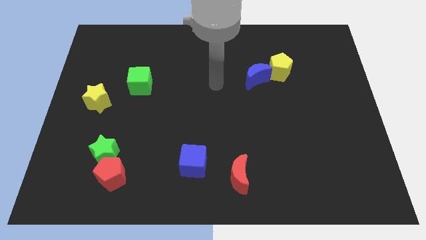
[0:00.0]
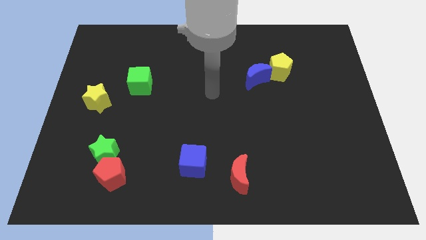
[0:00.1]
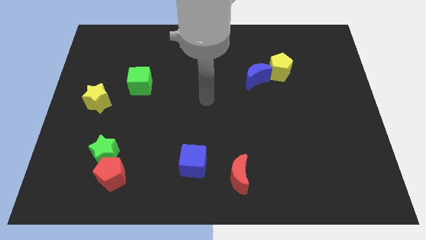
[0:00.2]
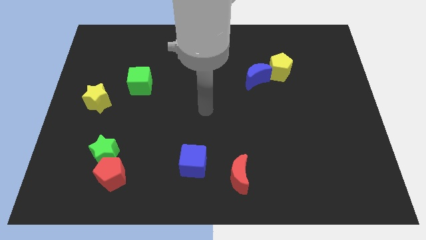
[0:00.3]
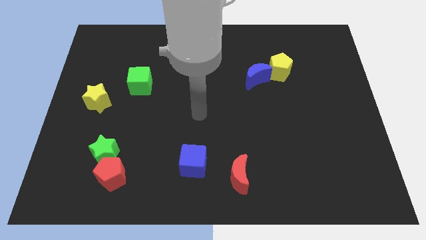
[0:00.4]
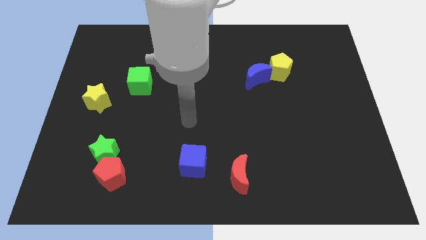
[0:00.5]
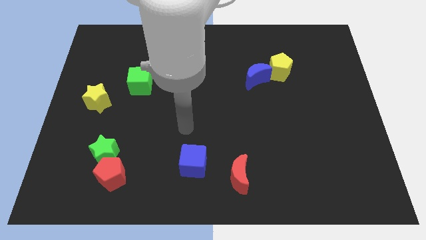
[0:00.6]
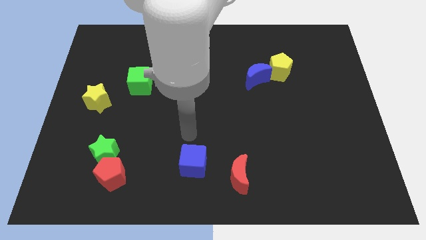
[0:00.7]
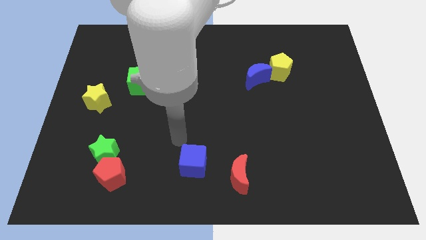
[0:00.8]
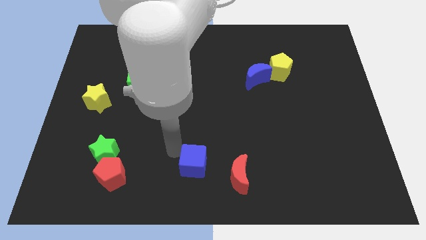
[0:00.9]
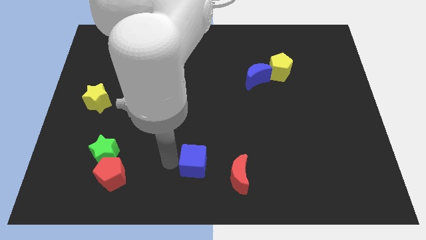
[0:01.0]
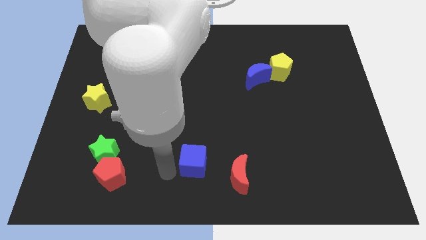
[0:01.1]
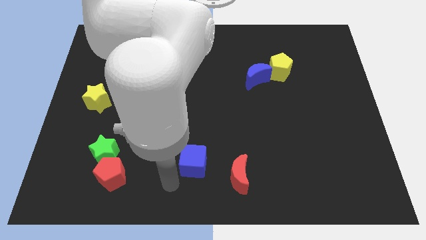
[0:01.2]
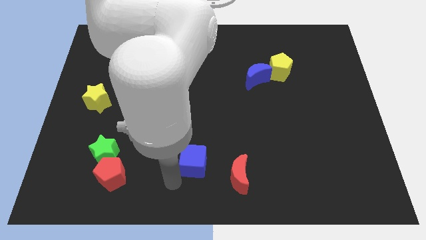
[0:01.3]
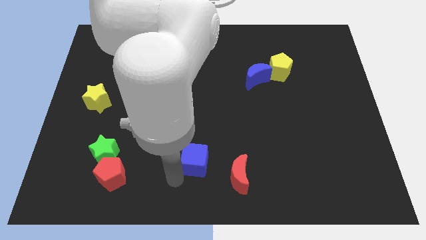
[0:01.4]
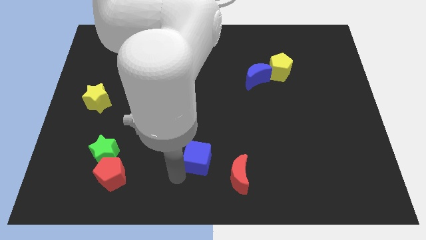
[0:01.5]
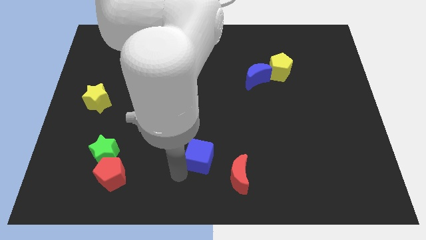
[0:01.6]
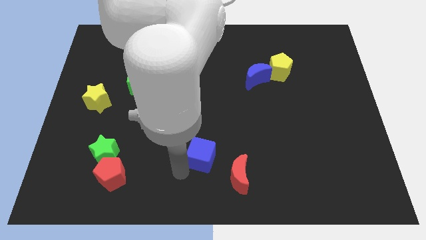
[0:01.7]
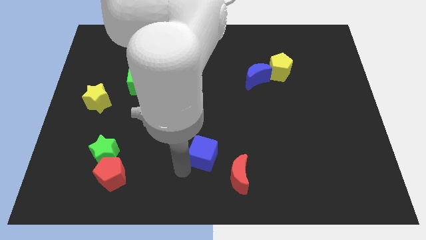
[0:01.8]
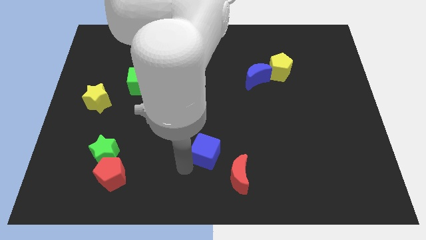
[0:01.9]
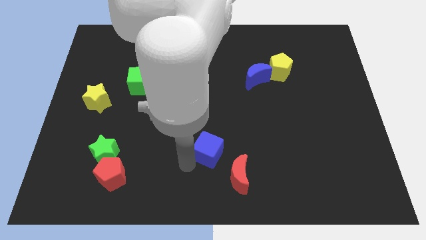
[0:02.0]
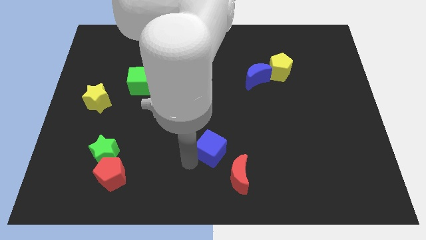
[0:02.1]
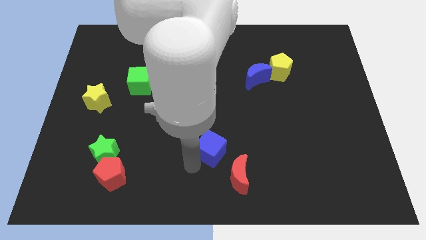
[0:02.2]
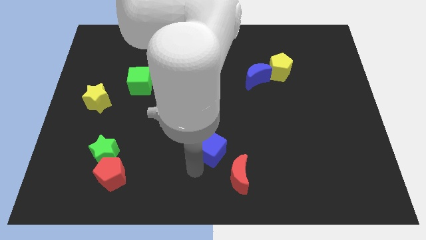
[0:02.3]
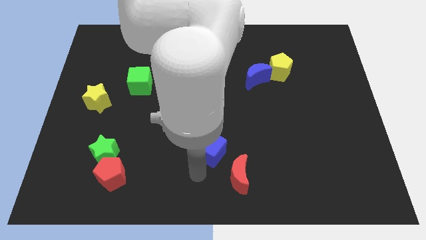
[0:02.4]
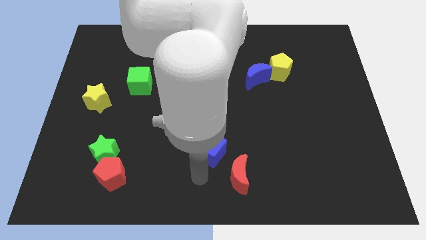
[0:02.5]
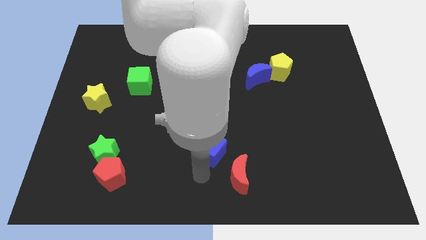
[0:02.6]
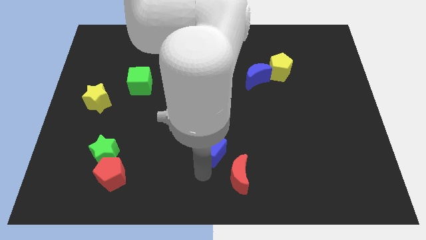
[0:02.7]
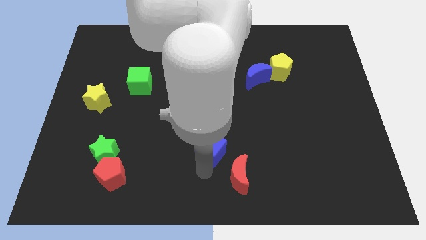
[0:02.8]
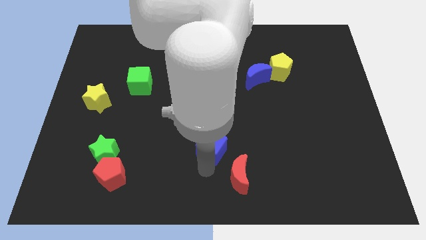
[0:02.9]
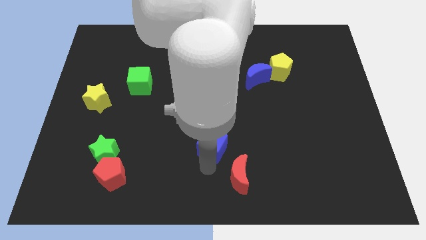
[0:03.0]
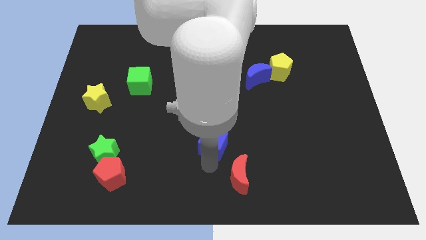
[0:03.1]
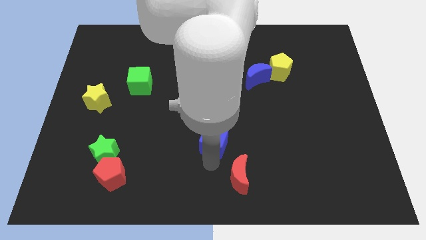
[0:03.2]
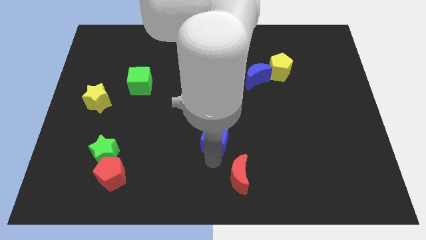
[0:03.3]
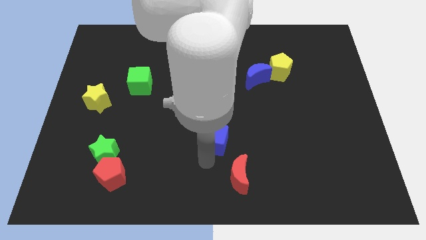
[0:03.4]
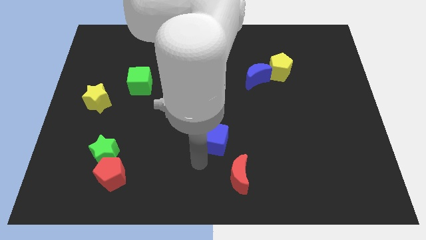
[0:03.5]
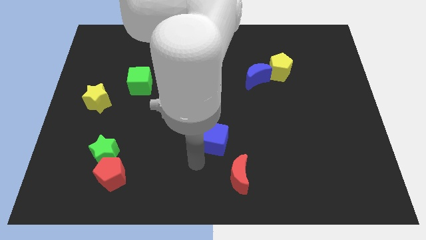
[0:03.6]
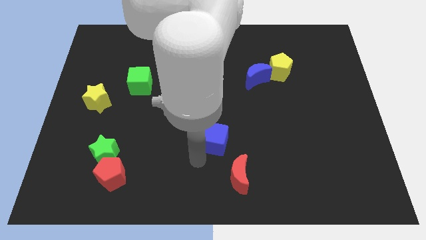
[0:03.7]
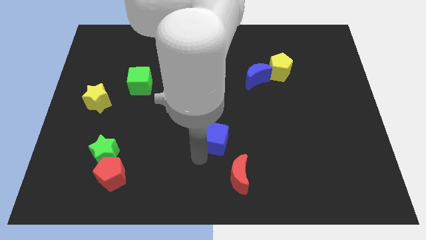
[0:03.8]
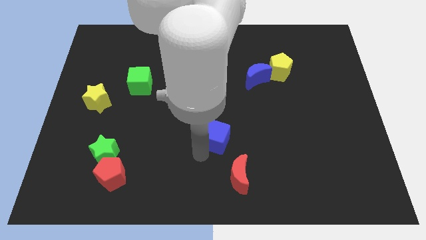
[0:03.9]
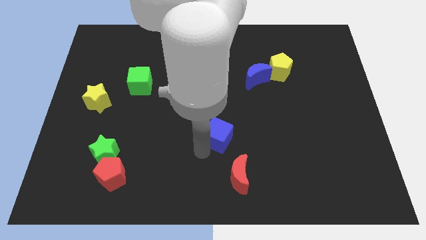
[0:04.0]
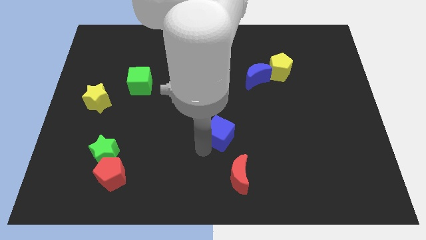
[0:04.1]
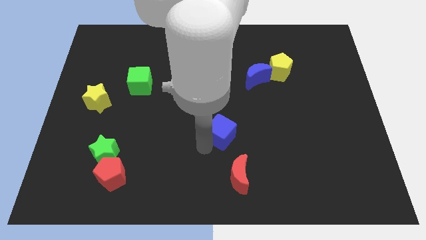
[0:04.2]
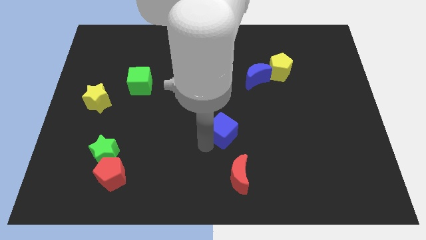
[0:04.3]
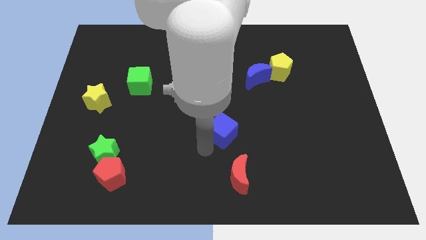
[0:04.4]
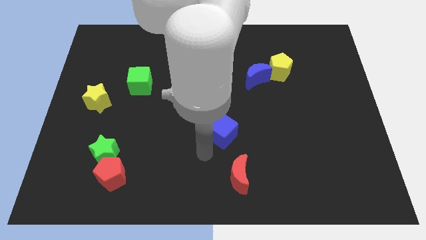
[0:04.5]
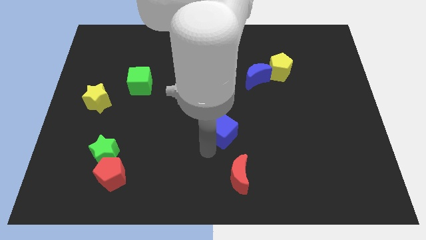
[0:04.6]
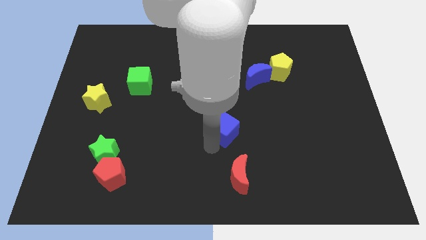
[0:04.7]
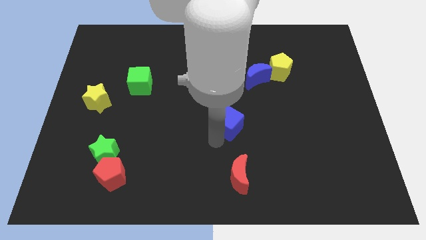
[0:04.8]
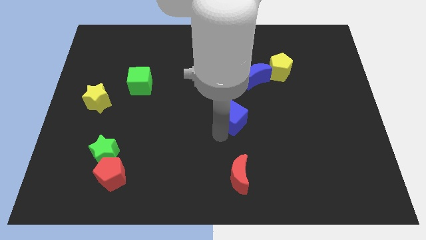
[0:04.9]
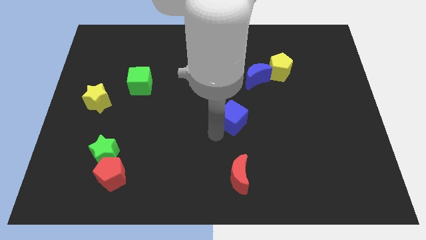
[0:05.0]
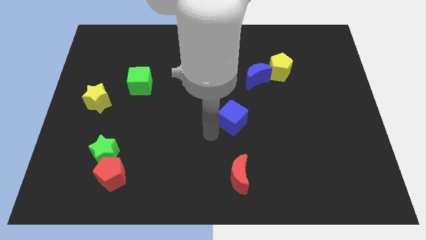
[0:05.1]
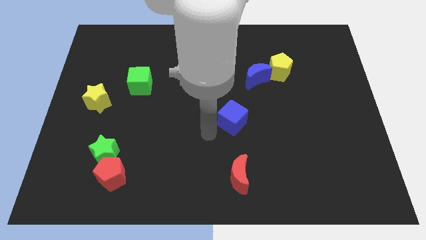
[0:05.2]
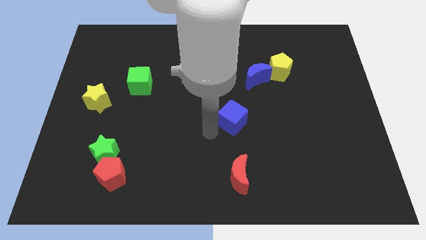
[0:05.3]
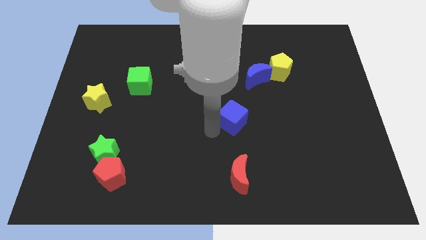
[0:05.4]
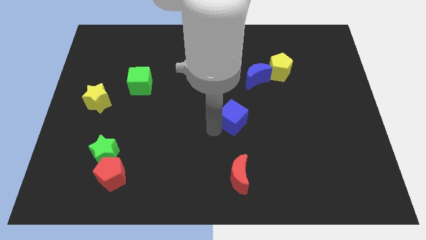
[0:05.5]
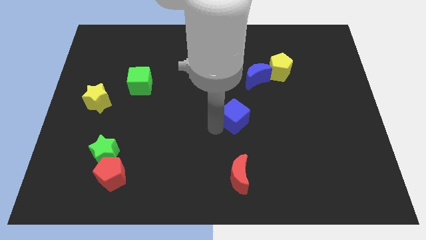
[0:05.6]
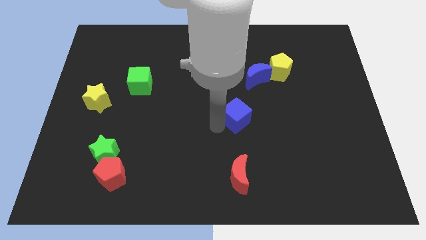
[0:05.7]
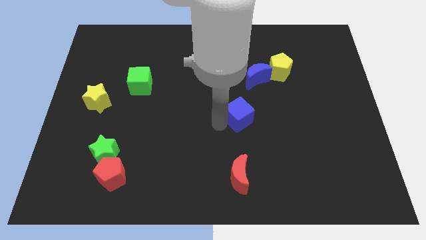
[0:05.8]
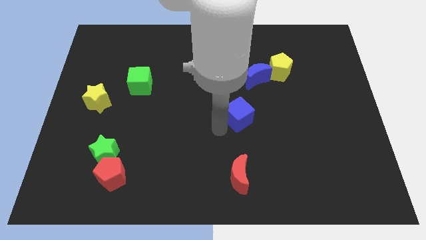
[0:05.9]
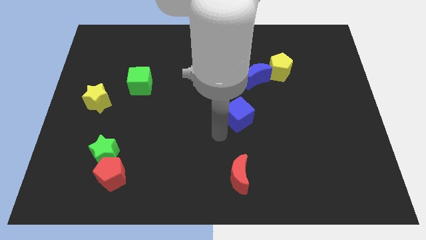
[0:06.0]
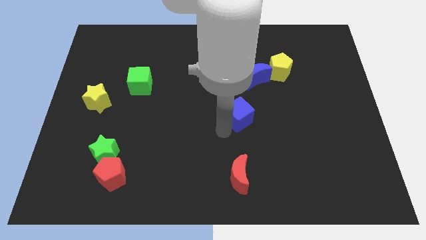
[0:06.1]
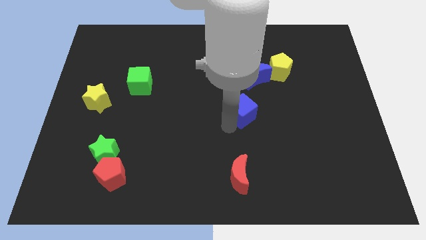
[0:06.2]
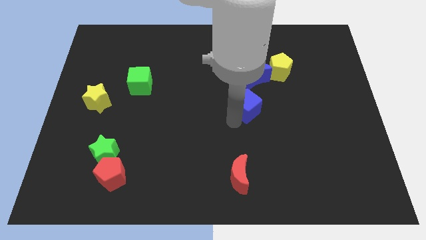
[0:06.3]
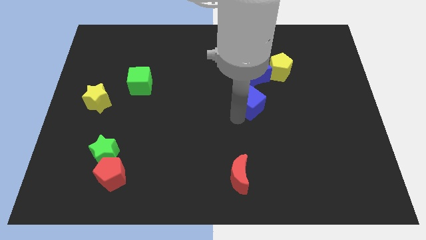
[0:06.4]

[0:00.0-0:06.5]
slide the blue cube upwards and to the right

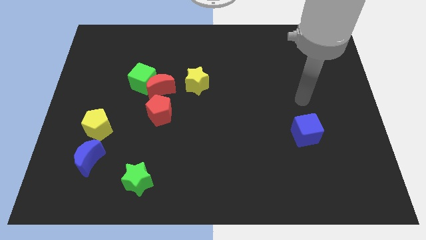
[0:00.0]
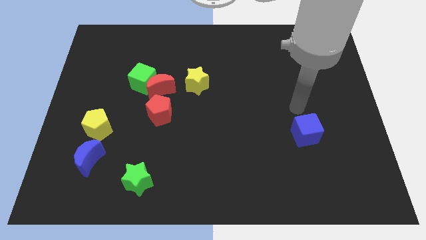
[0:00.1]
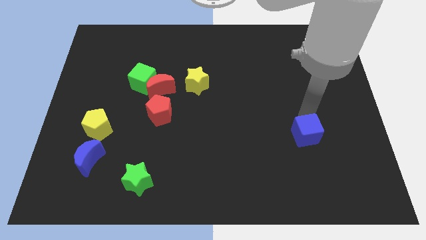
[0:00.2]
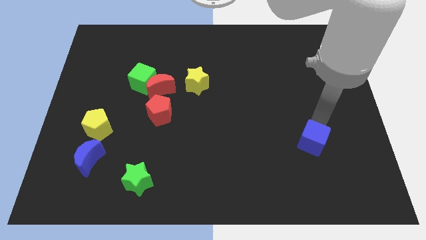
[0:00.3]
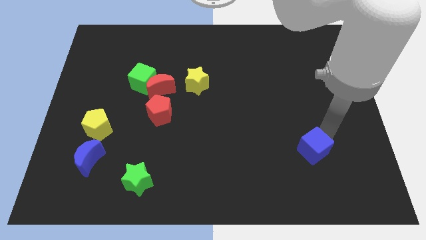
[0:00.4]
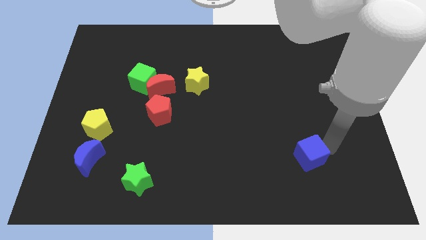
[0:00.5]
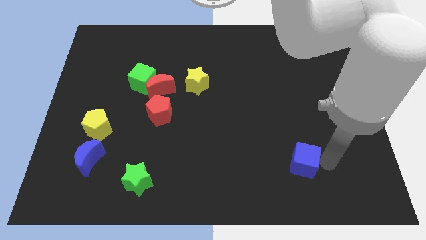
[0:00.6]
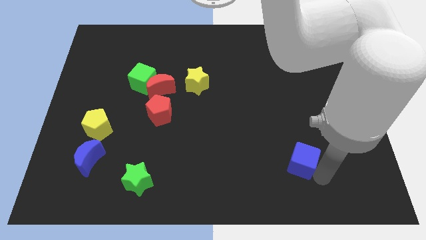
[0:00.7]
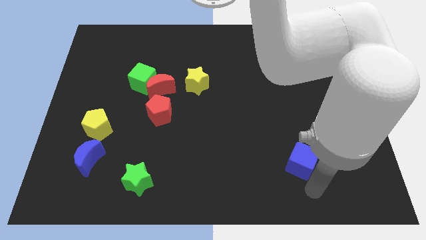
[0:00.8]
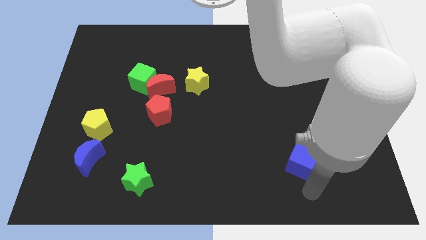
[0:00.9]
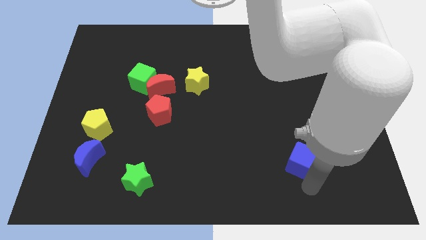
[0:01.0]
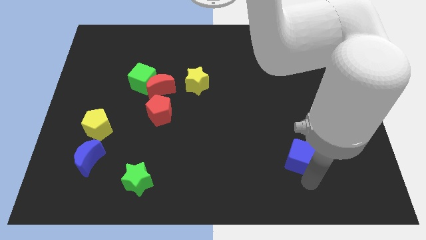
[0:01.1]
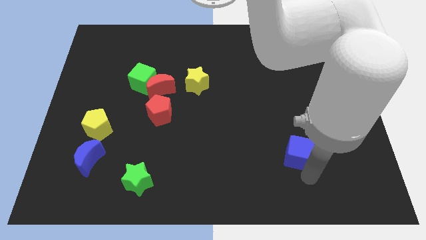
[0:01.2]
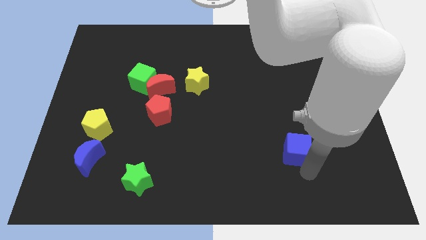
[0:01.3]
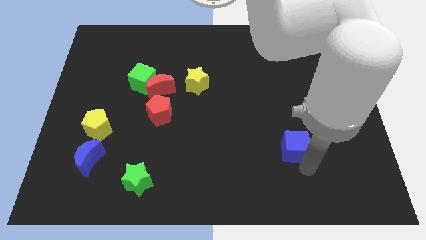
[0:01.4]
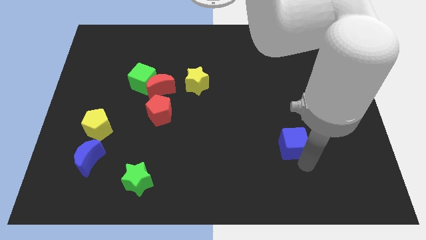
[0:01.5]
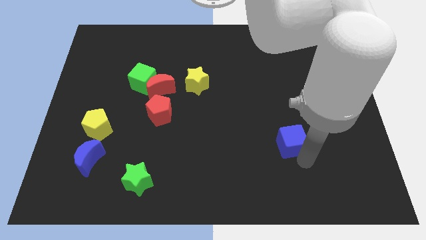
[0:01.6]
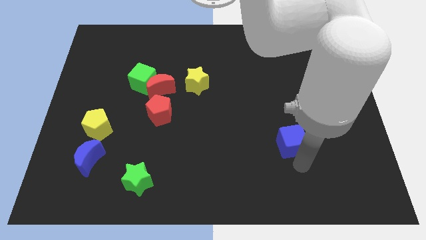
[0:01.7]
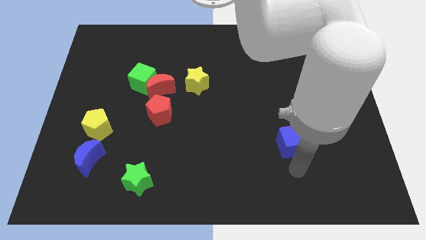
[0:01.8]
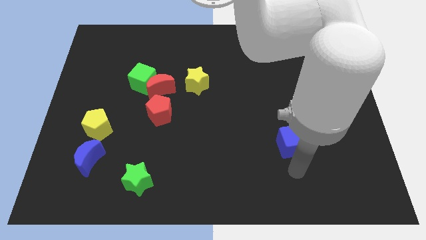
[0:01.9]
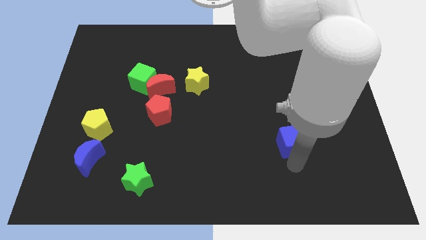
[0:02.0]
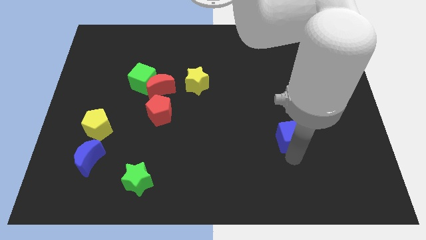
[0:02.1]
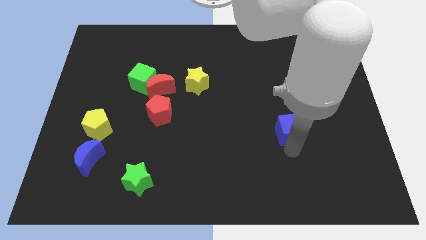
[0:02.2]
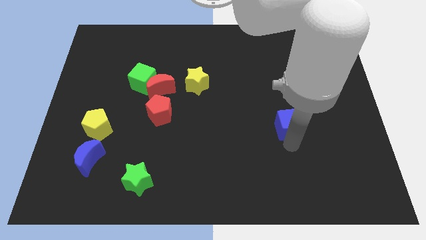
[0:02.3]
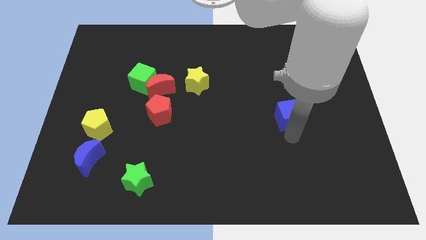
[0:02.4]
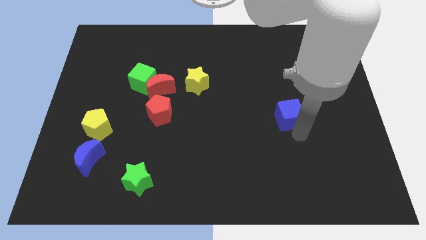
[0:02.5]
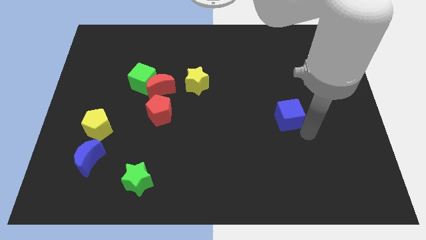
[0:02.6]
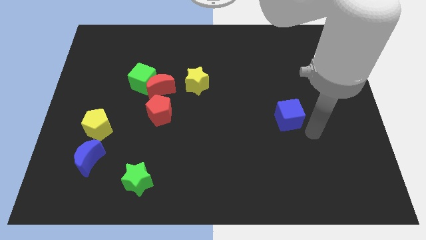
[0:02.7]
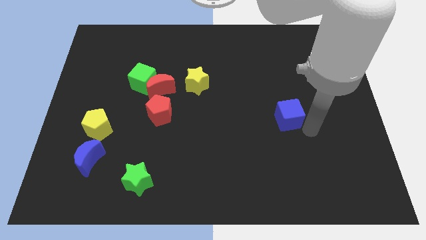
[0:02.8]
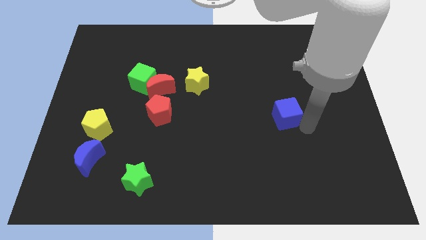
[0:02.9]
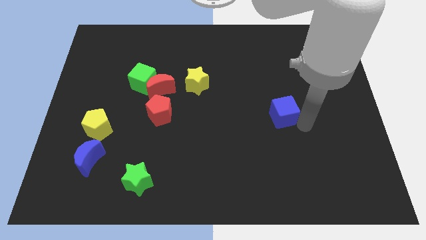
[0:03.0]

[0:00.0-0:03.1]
push the blue cube up and left diagonally a little
